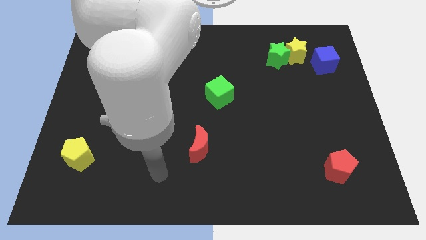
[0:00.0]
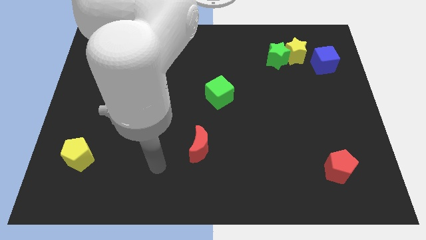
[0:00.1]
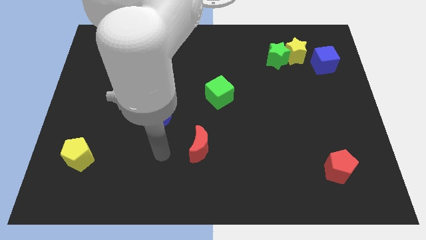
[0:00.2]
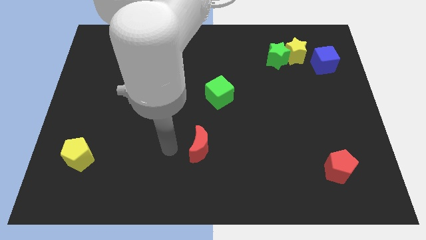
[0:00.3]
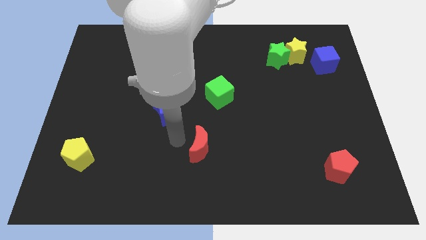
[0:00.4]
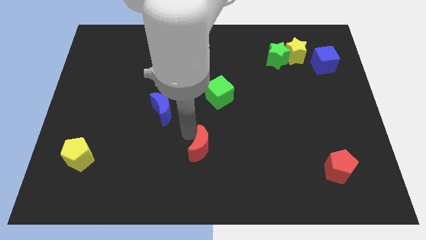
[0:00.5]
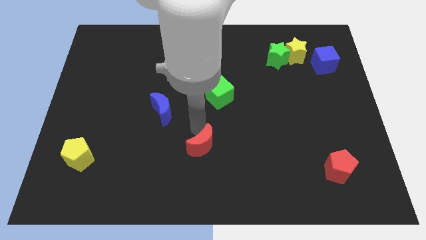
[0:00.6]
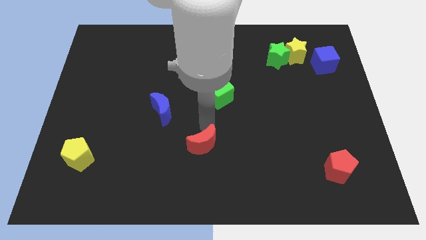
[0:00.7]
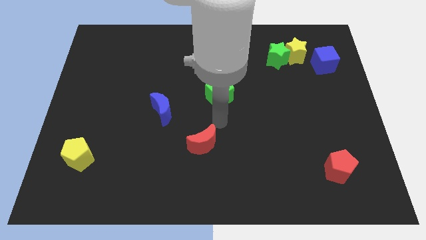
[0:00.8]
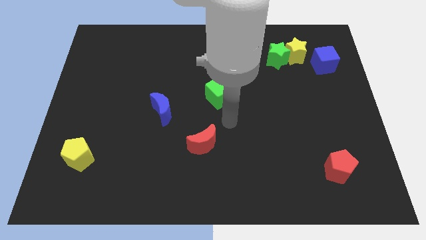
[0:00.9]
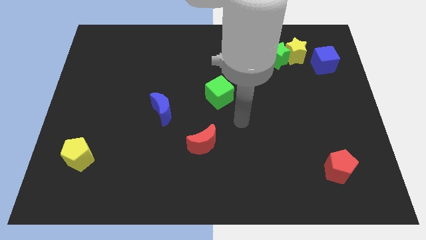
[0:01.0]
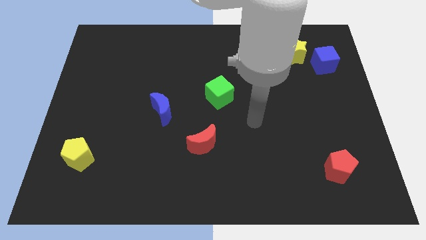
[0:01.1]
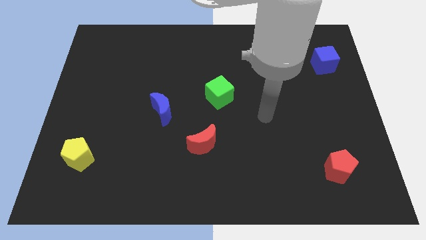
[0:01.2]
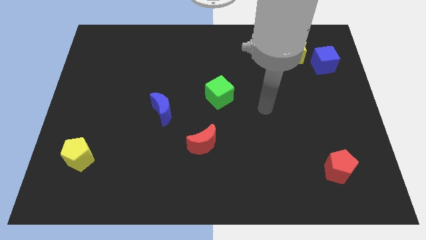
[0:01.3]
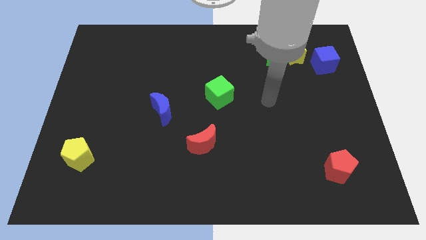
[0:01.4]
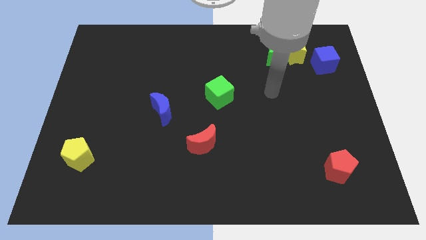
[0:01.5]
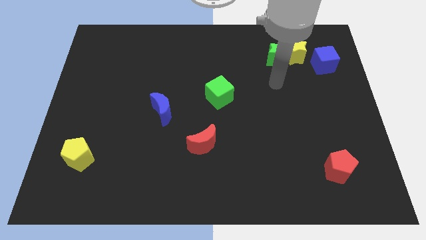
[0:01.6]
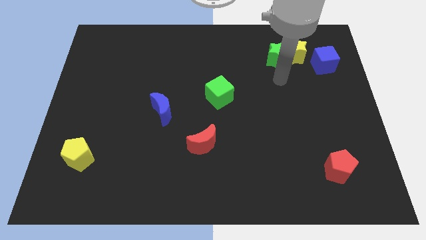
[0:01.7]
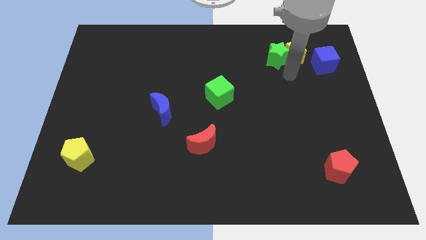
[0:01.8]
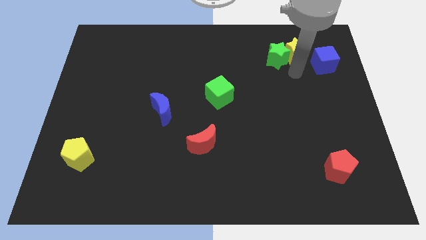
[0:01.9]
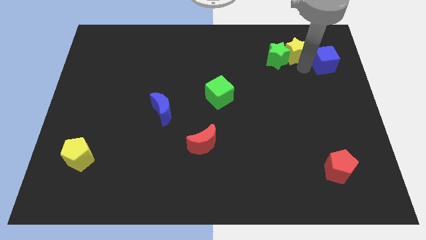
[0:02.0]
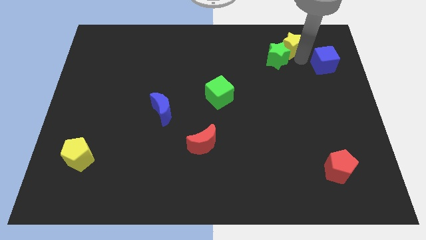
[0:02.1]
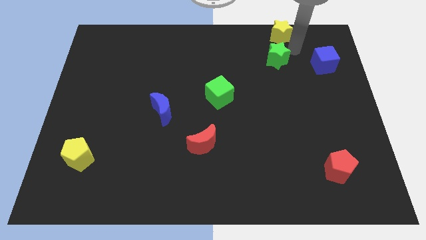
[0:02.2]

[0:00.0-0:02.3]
move the green star away from the yellow star

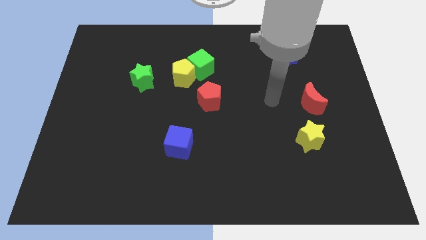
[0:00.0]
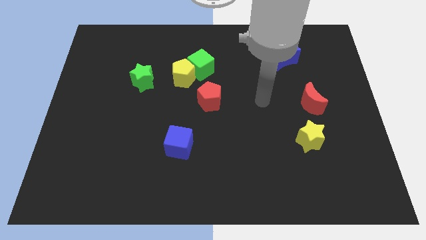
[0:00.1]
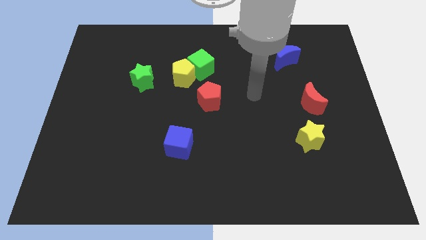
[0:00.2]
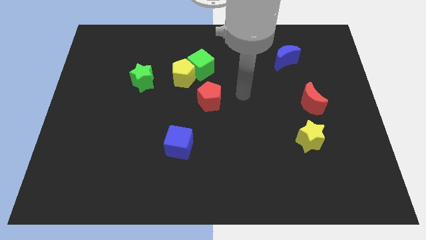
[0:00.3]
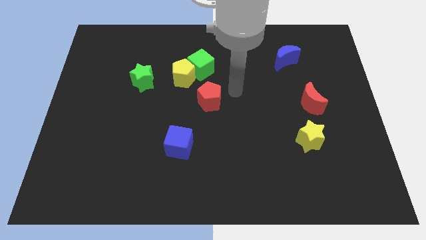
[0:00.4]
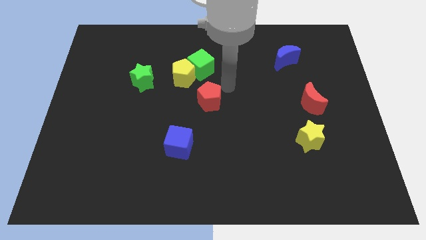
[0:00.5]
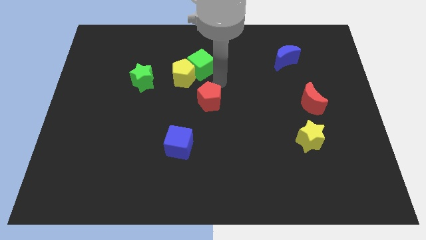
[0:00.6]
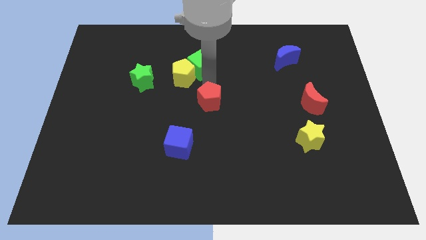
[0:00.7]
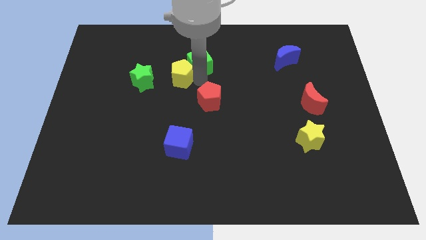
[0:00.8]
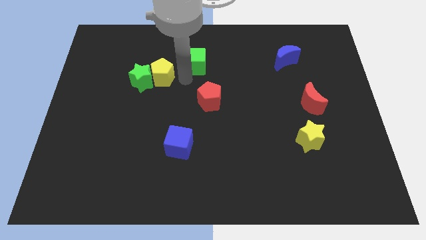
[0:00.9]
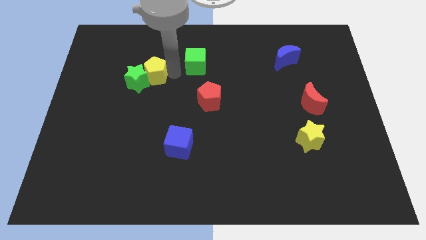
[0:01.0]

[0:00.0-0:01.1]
move the green cube away from the yellow pentagon

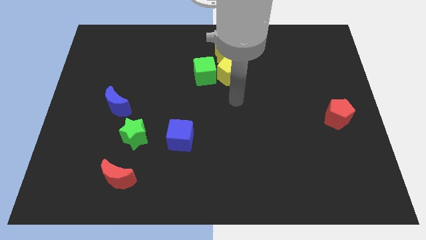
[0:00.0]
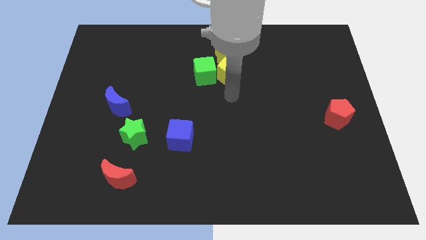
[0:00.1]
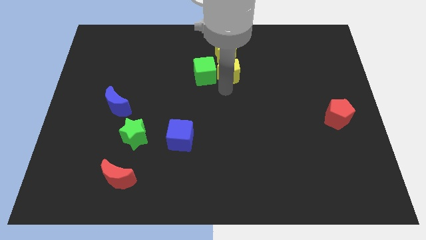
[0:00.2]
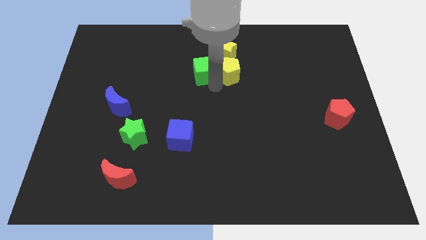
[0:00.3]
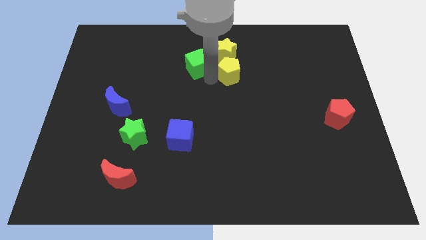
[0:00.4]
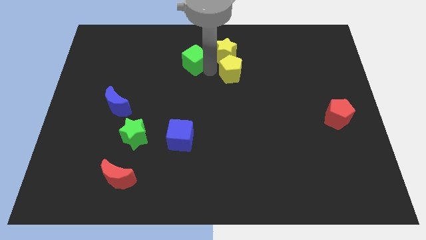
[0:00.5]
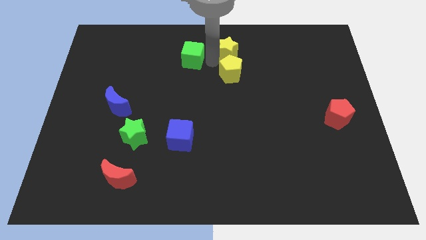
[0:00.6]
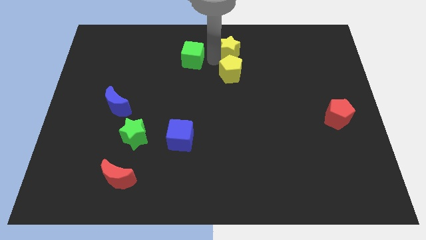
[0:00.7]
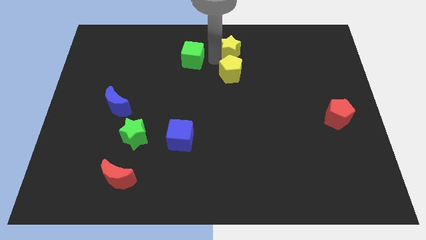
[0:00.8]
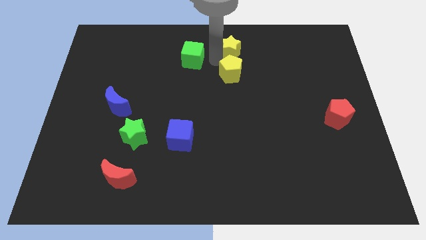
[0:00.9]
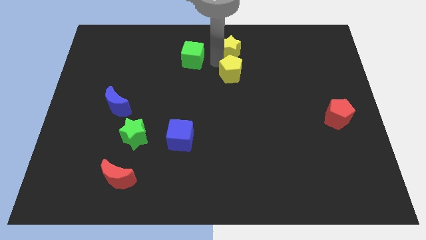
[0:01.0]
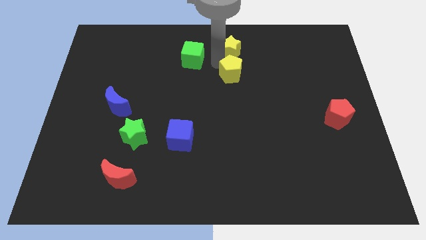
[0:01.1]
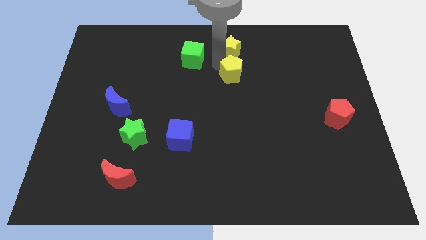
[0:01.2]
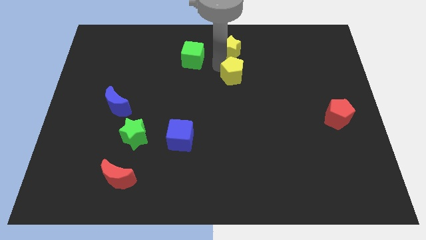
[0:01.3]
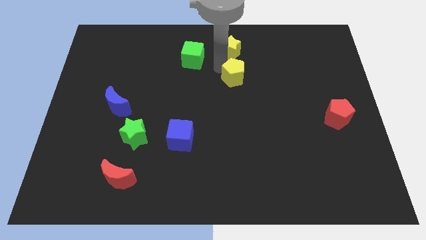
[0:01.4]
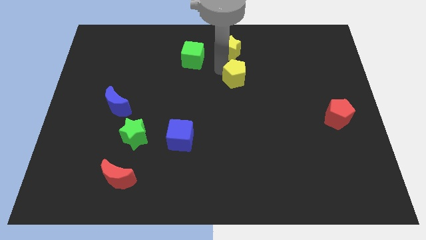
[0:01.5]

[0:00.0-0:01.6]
separate the yellow pentagon from the green cube and yellow star

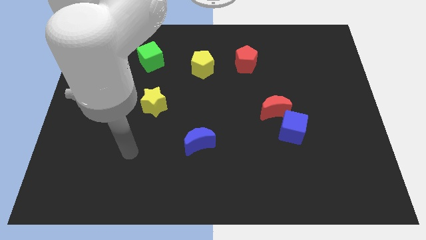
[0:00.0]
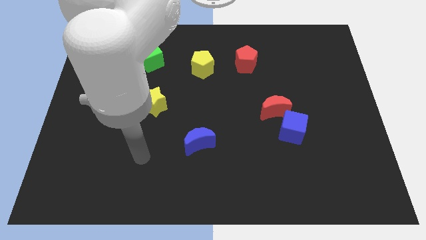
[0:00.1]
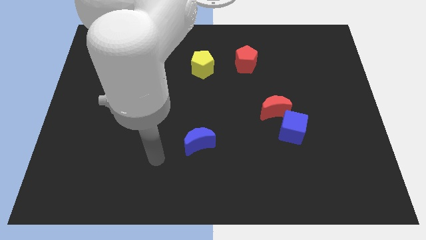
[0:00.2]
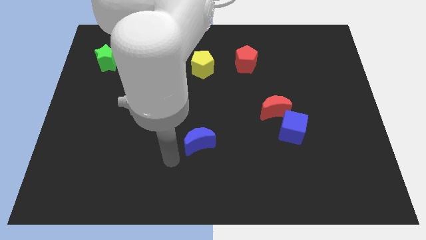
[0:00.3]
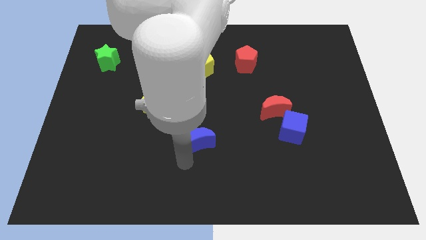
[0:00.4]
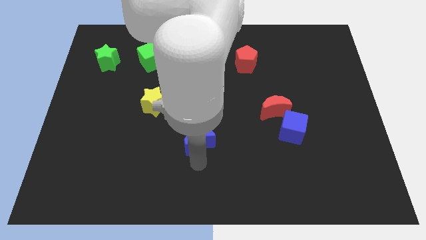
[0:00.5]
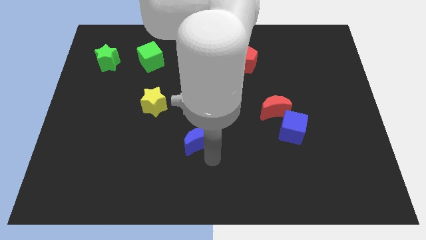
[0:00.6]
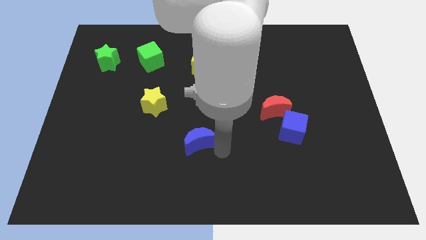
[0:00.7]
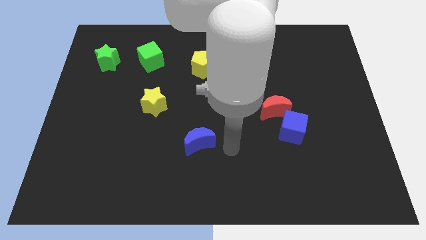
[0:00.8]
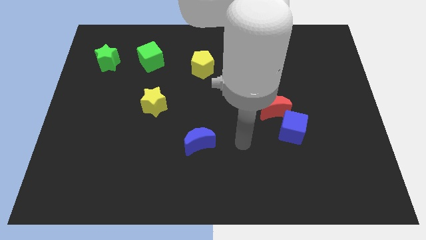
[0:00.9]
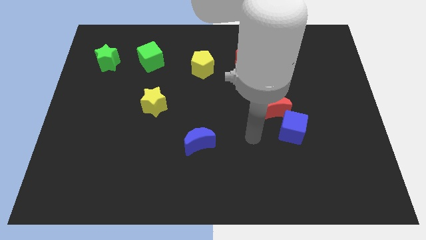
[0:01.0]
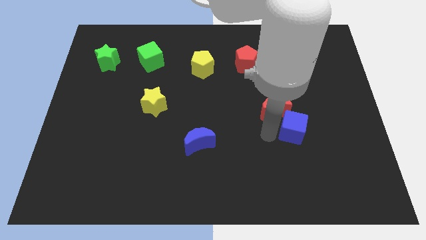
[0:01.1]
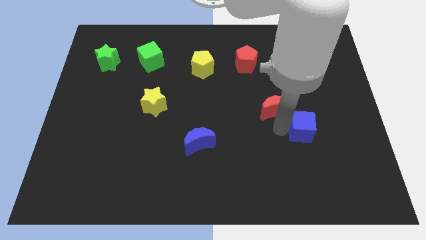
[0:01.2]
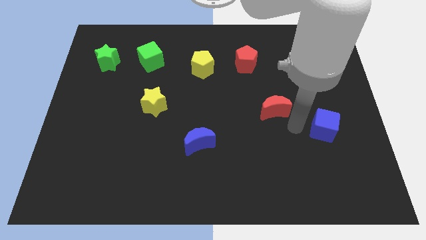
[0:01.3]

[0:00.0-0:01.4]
separate the red moon from the blue cube

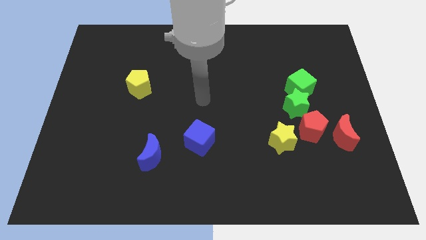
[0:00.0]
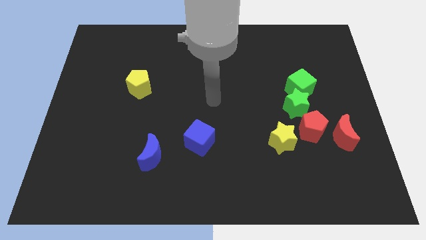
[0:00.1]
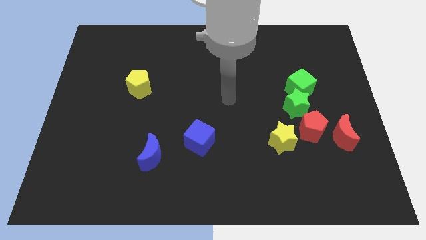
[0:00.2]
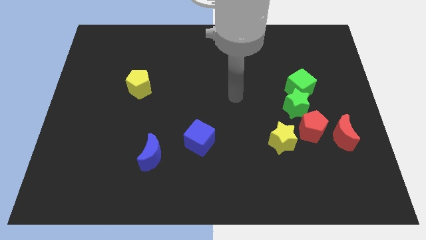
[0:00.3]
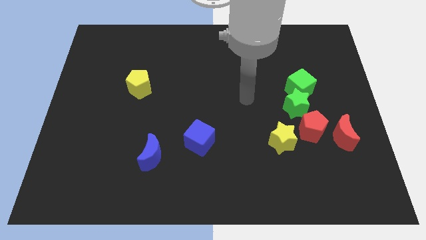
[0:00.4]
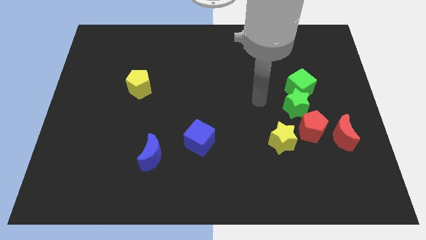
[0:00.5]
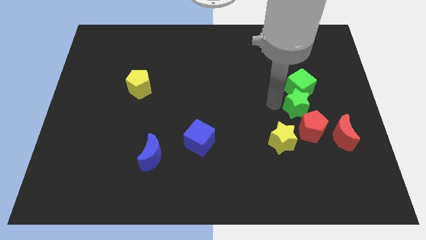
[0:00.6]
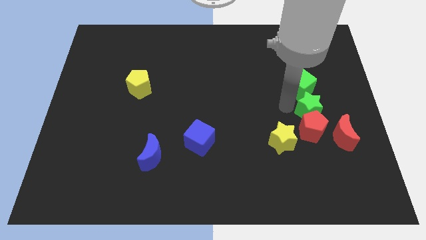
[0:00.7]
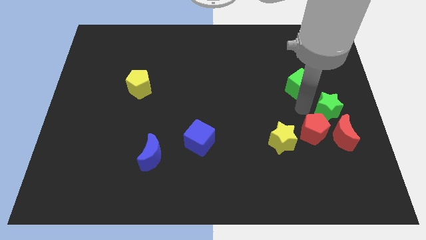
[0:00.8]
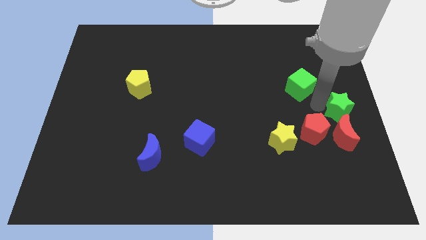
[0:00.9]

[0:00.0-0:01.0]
pull the green cube apart from the green star

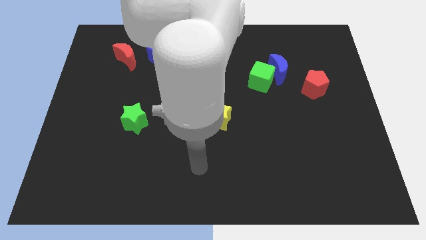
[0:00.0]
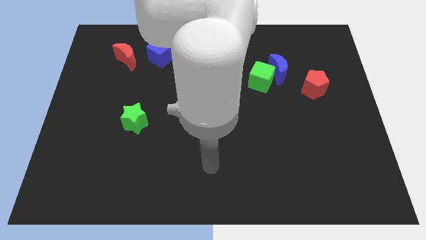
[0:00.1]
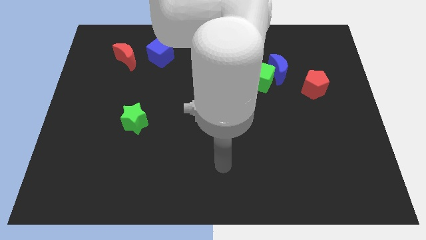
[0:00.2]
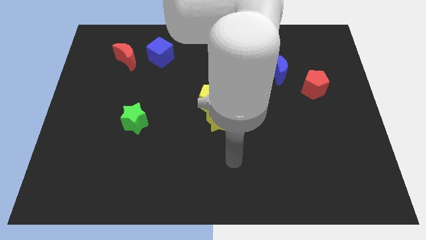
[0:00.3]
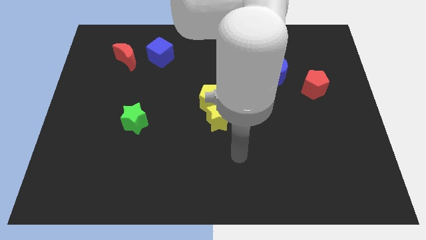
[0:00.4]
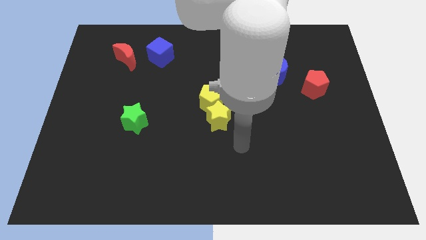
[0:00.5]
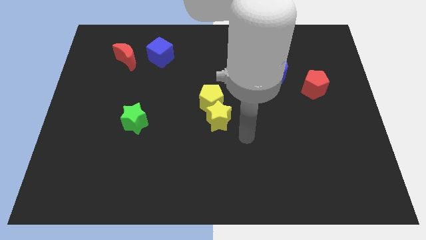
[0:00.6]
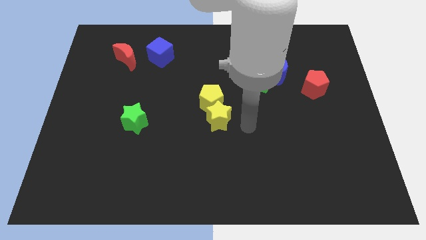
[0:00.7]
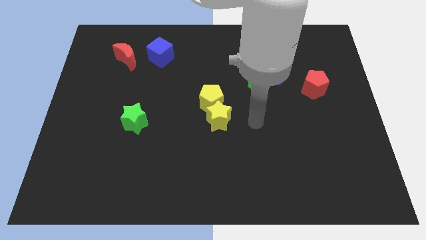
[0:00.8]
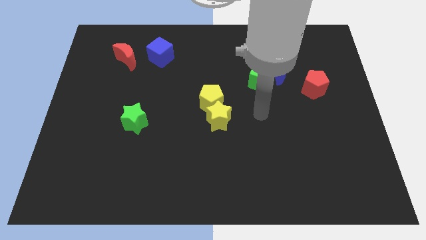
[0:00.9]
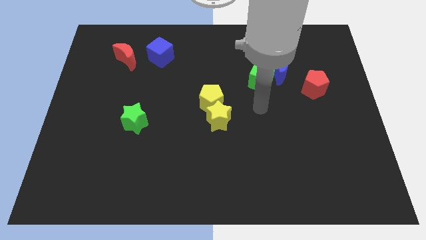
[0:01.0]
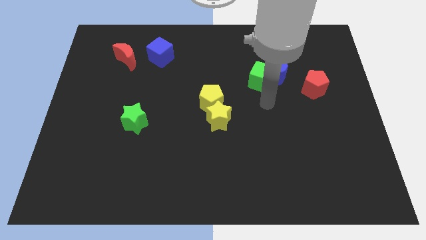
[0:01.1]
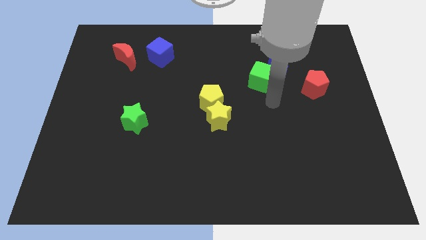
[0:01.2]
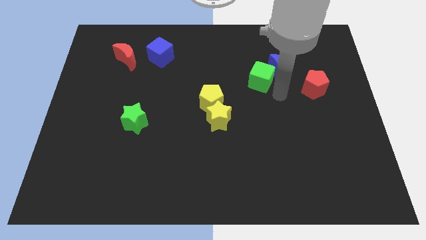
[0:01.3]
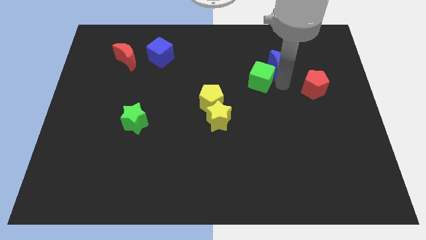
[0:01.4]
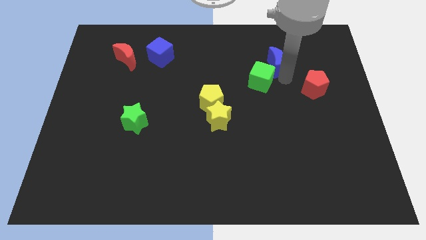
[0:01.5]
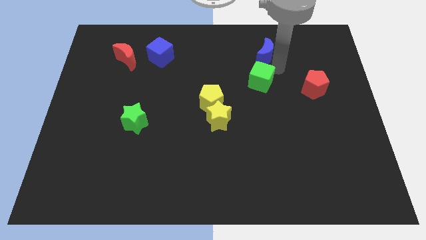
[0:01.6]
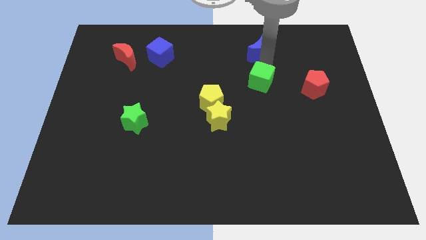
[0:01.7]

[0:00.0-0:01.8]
move the green cube away from the blue moon

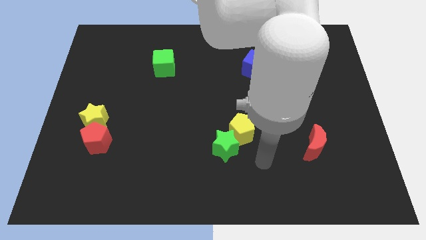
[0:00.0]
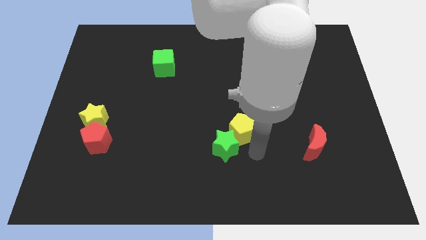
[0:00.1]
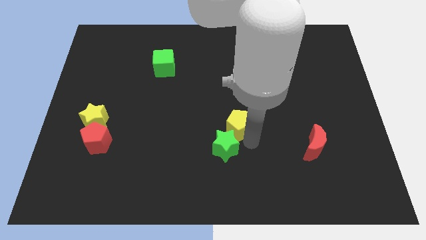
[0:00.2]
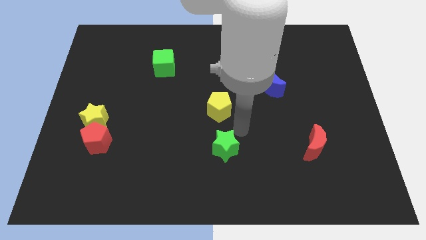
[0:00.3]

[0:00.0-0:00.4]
separate the green star from the yellow pentagon
